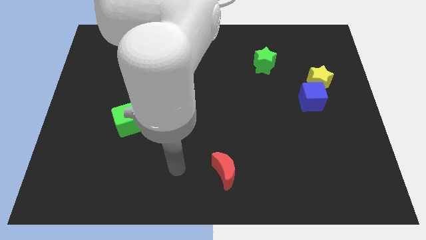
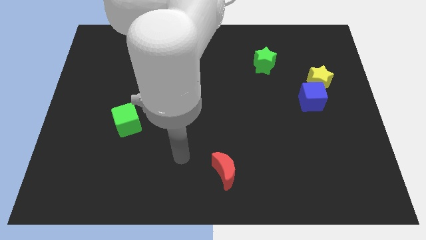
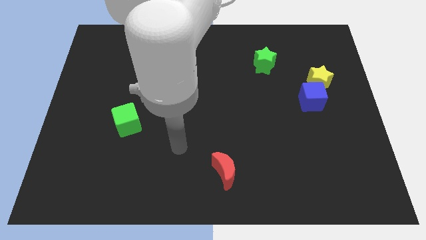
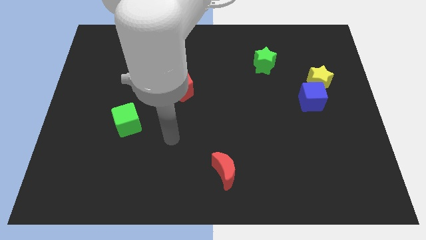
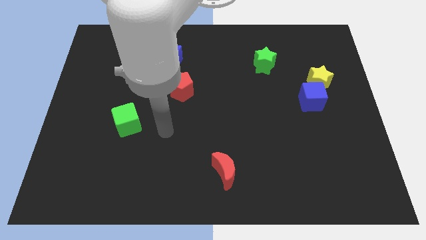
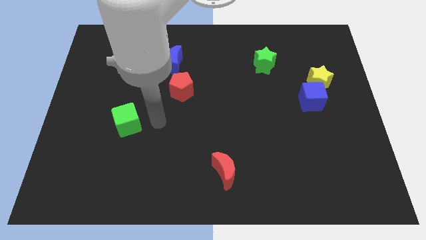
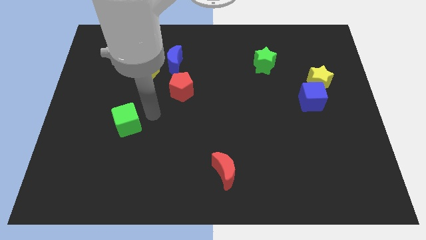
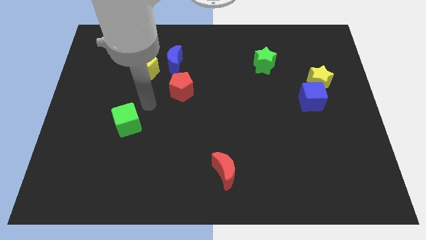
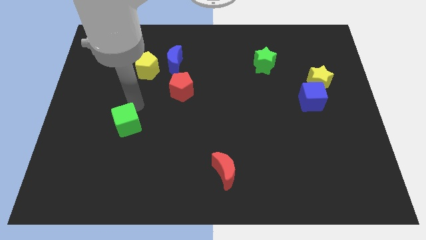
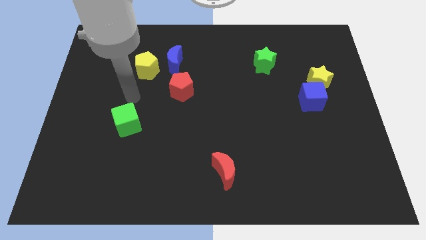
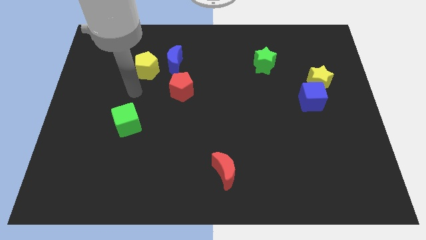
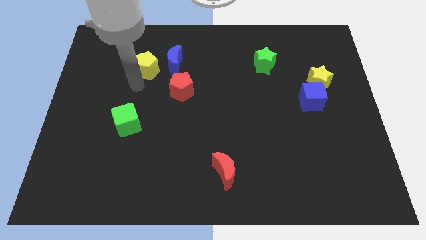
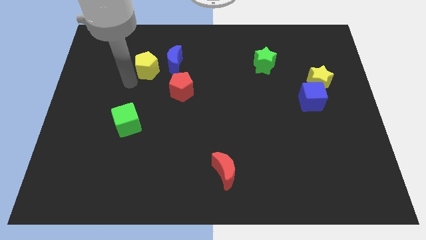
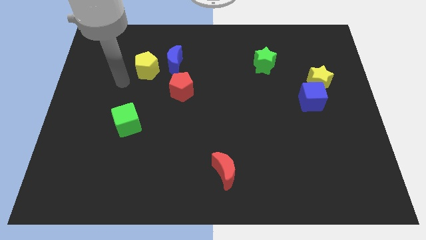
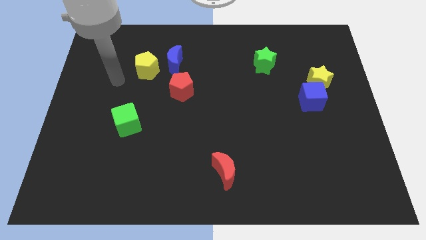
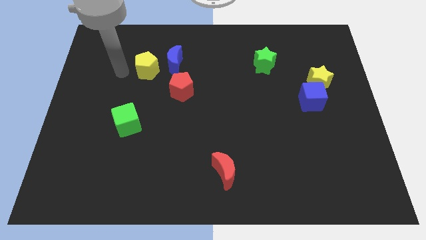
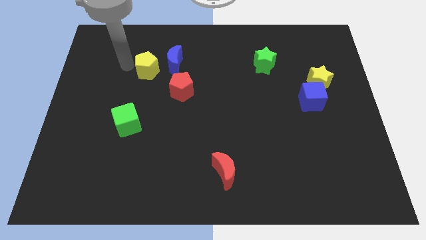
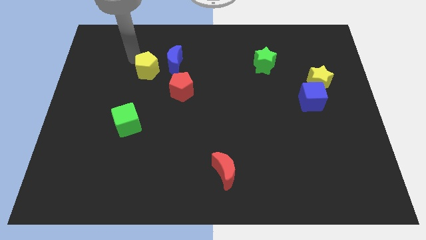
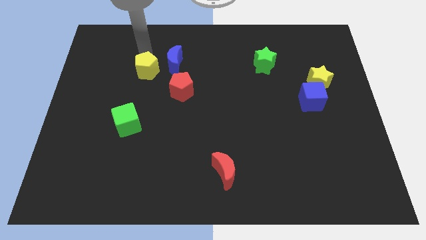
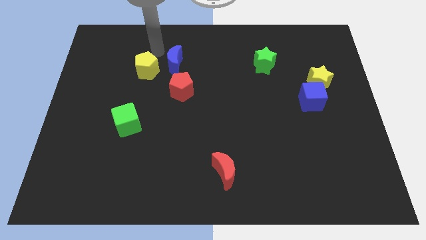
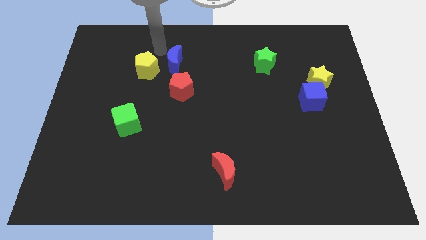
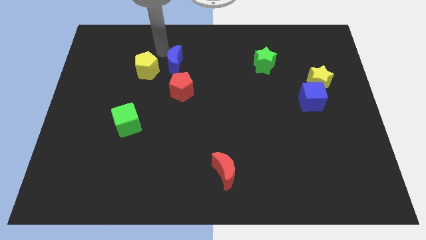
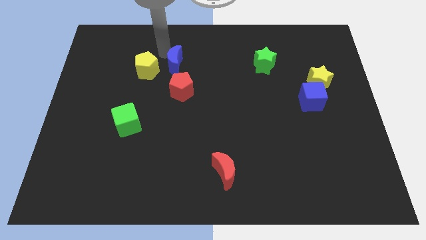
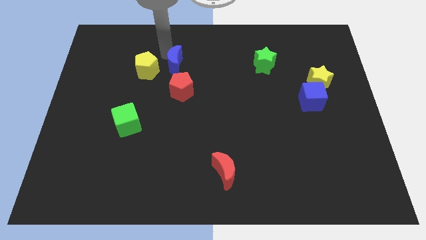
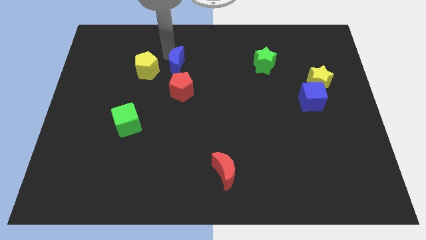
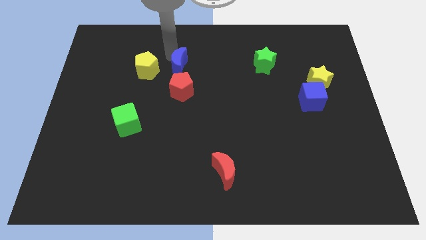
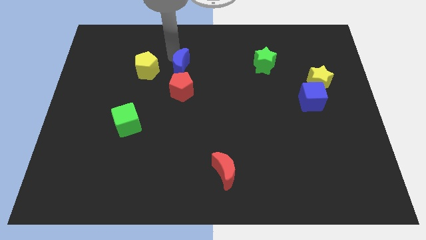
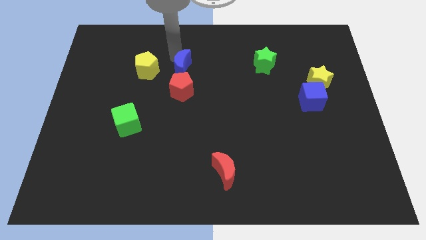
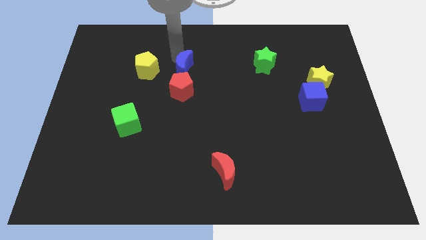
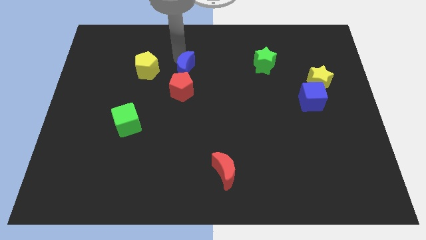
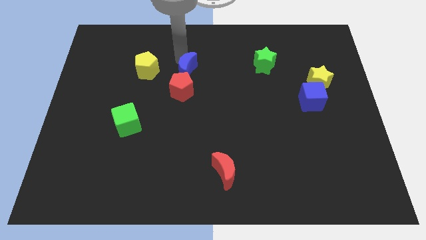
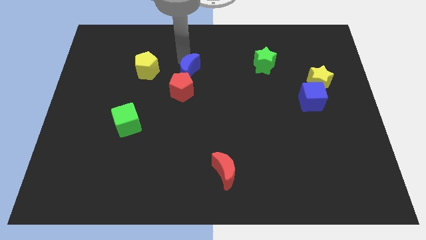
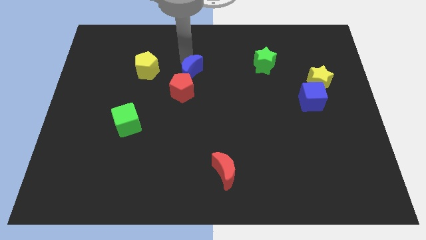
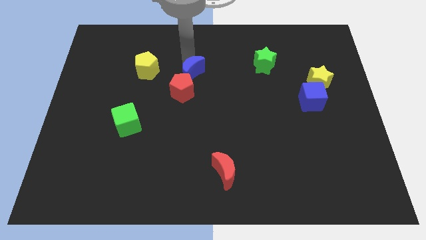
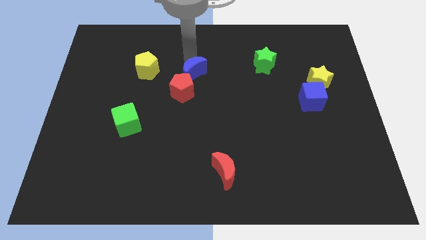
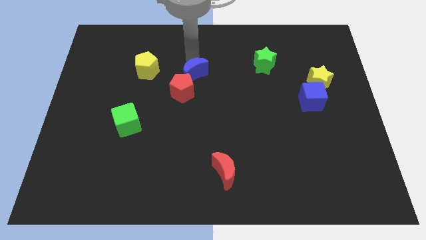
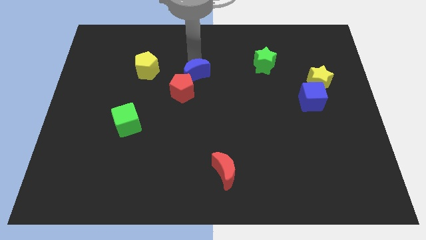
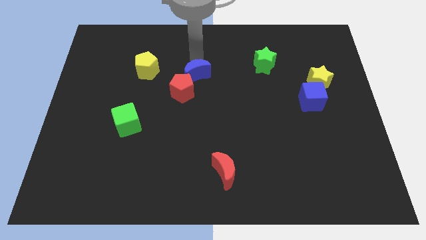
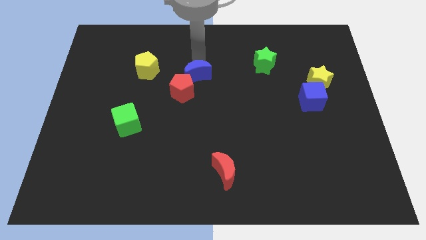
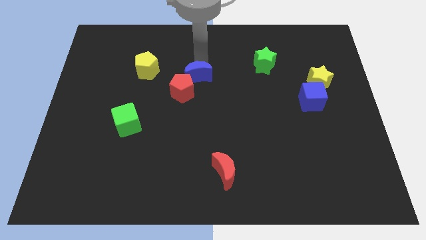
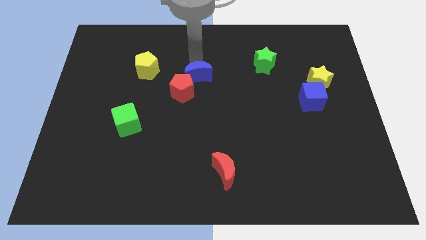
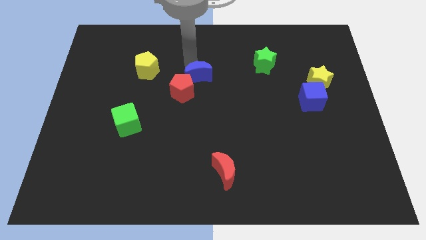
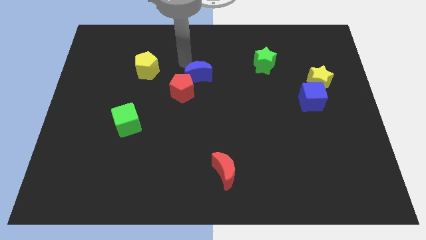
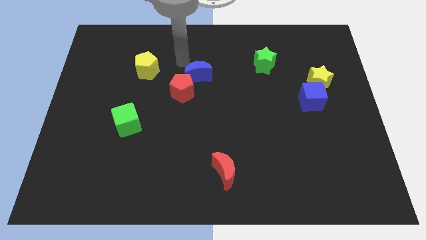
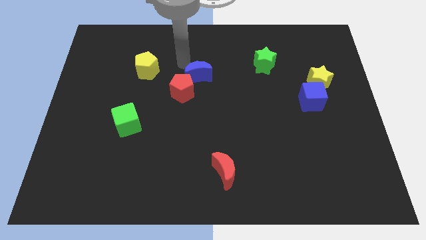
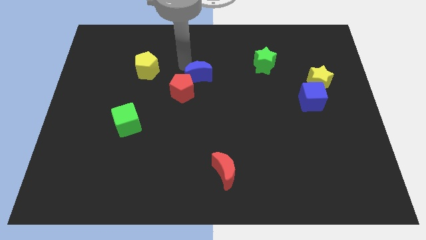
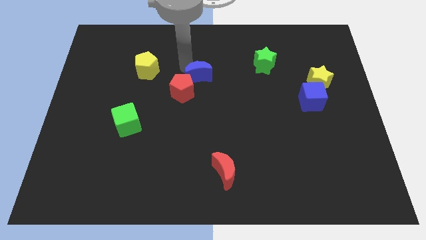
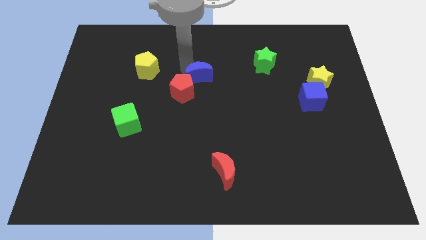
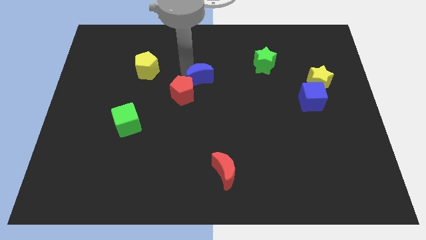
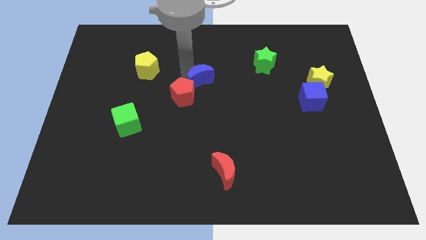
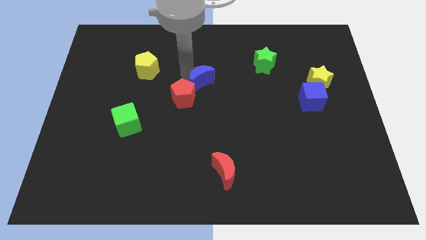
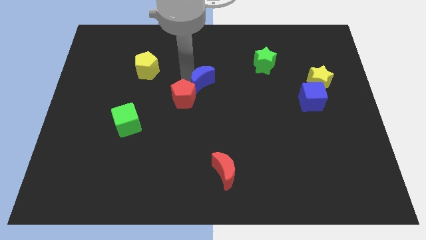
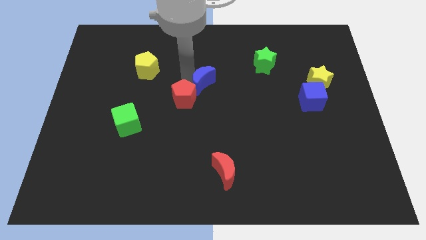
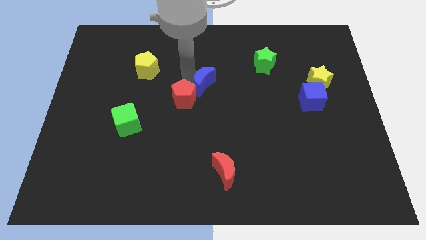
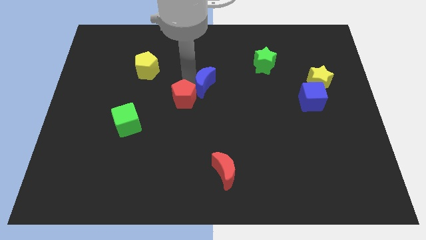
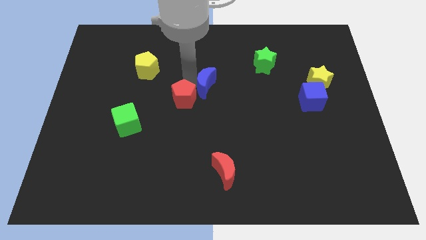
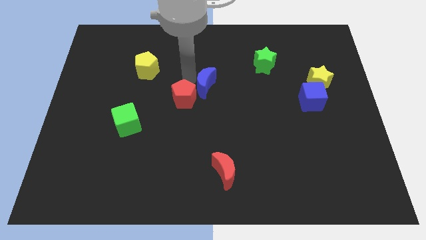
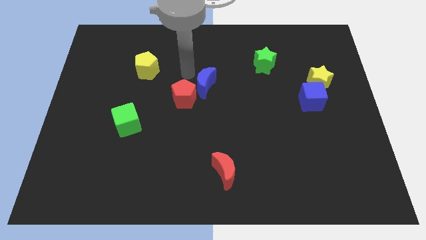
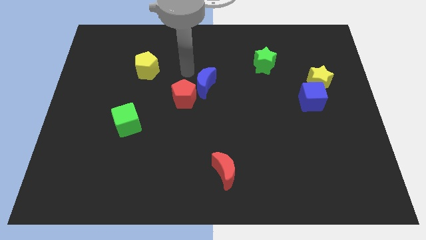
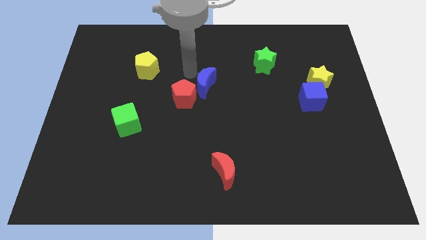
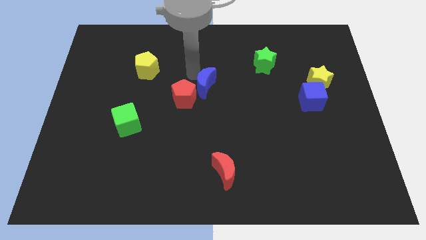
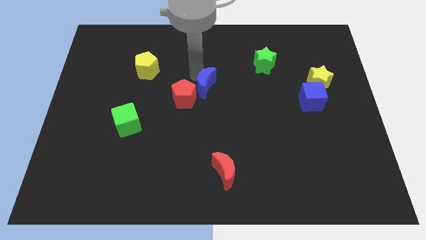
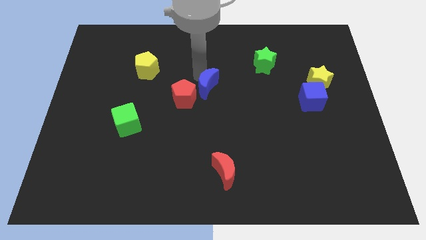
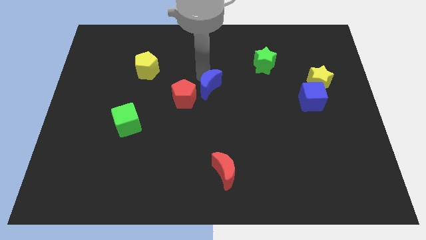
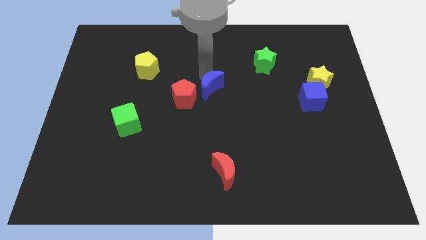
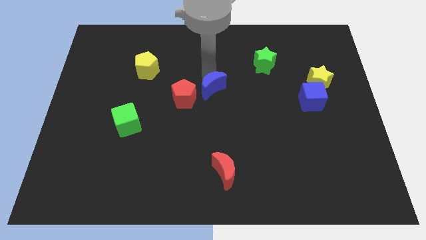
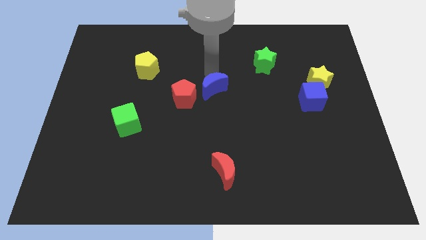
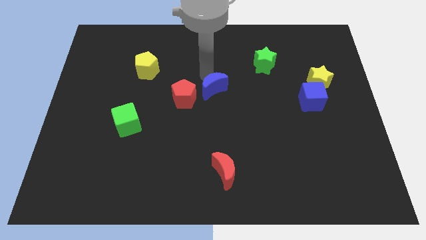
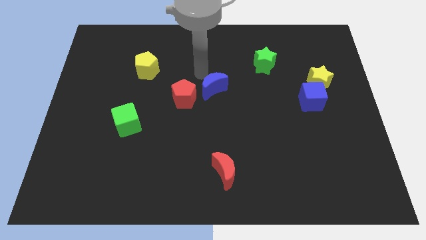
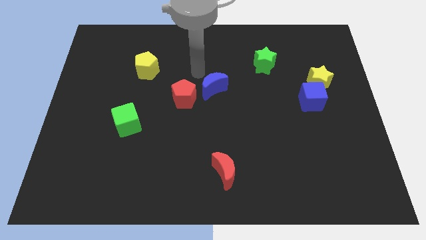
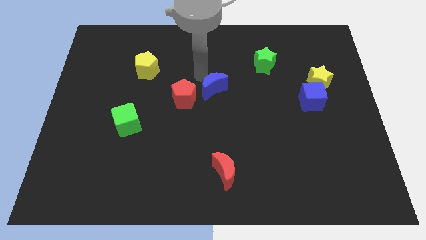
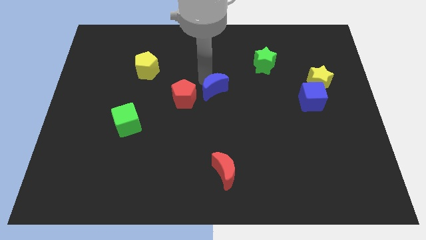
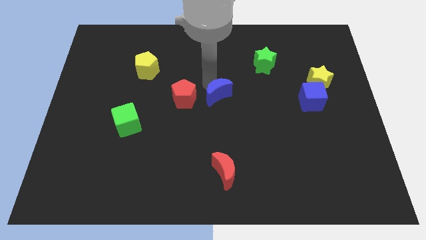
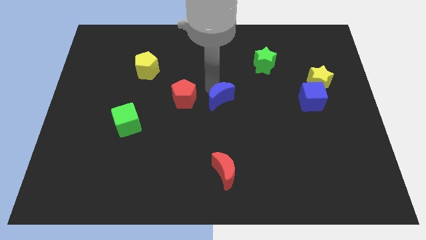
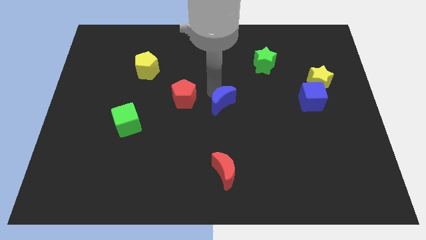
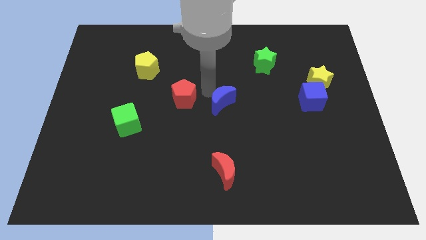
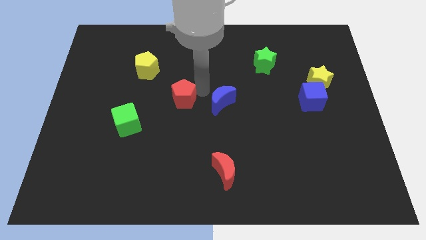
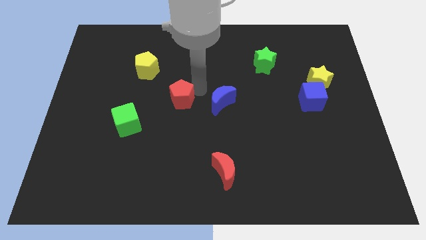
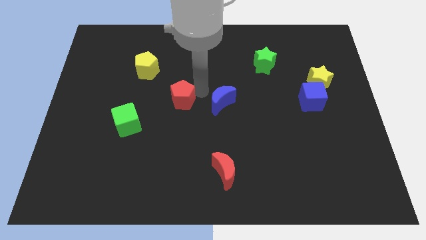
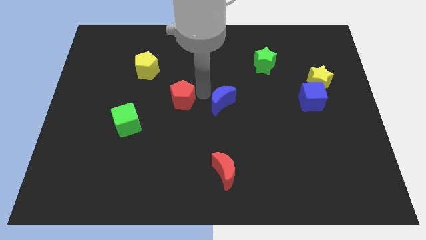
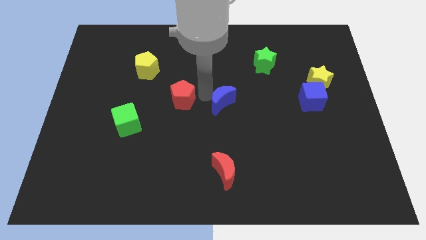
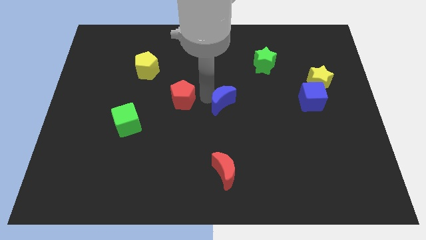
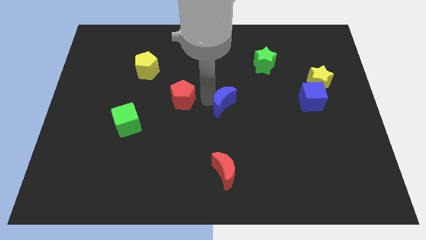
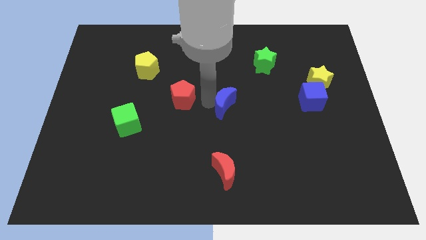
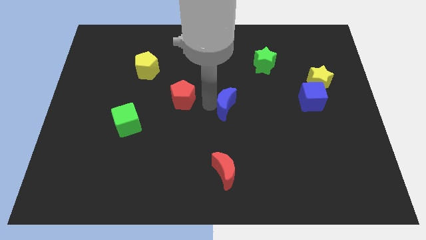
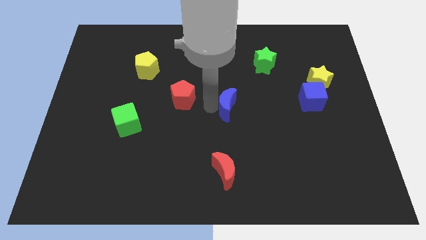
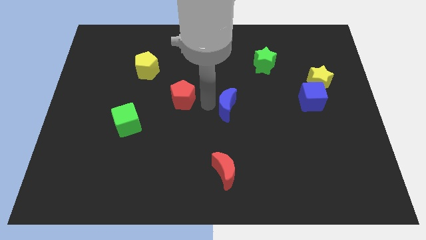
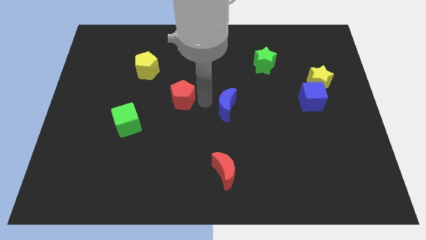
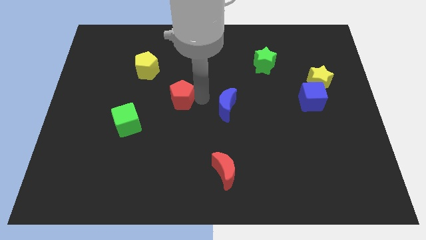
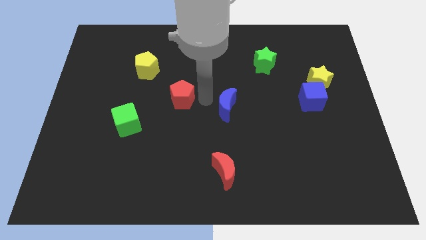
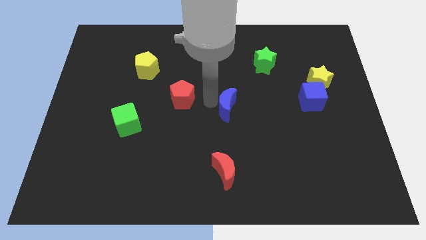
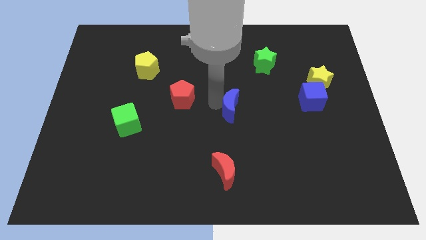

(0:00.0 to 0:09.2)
move the blue moon down and to the right diagonally
